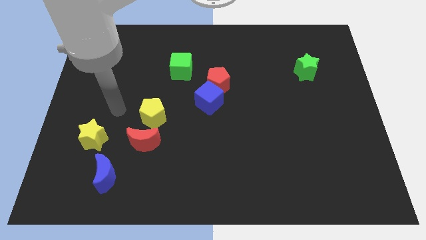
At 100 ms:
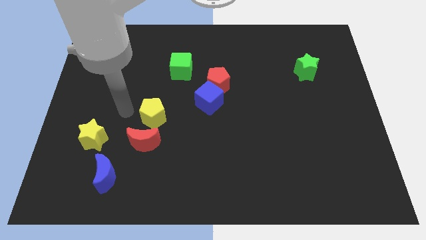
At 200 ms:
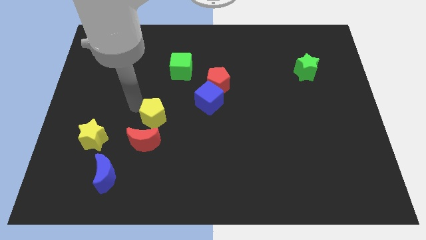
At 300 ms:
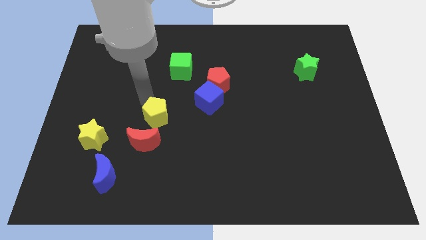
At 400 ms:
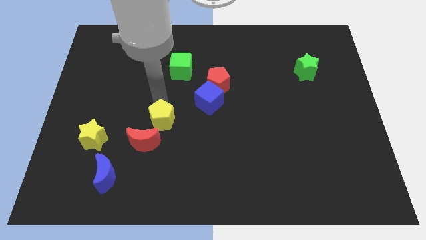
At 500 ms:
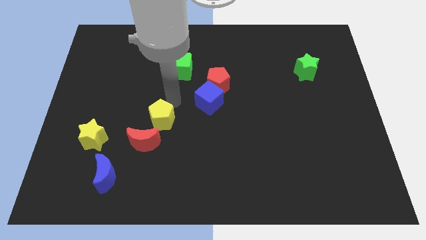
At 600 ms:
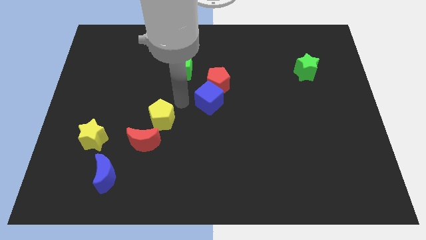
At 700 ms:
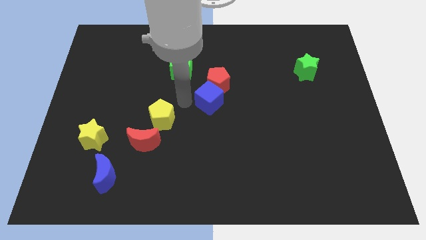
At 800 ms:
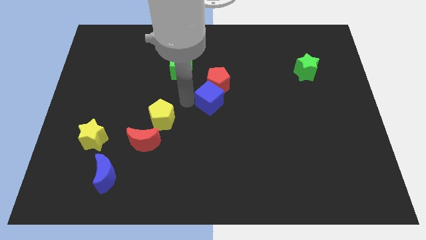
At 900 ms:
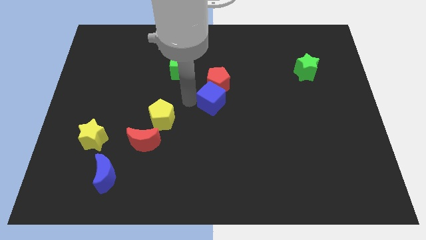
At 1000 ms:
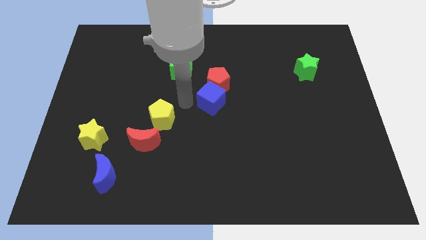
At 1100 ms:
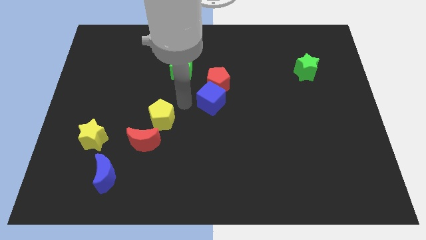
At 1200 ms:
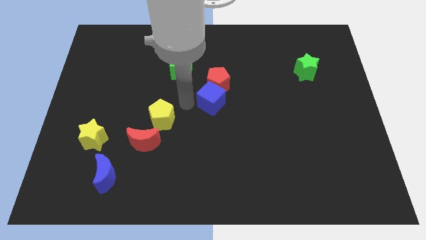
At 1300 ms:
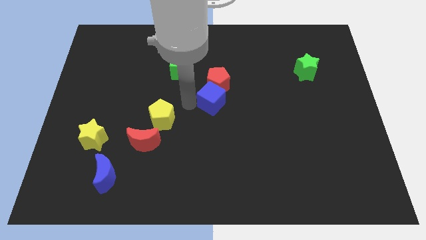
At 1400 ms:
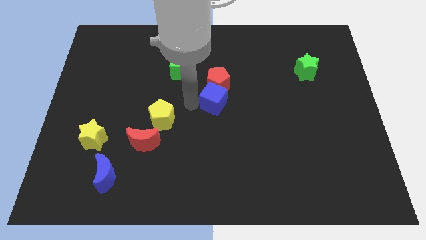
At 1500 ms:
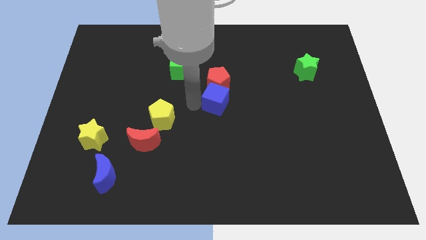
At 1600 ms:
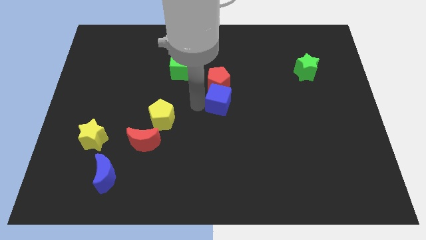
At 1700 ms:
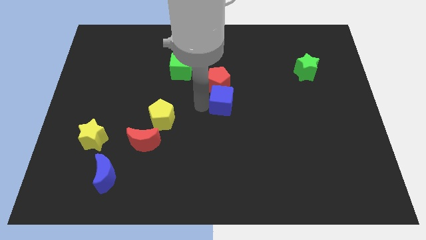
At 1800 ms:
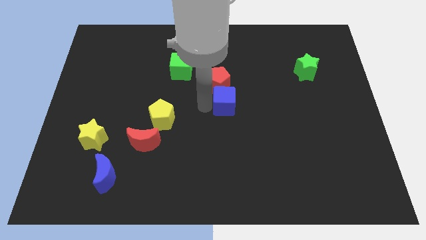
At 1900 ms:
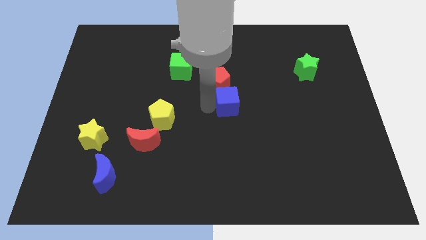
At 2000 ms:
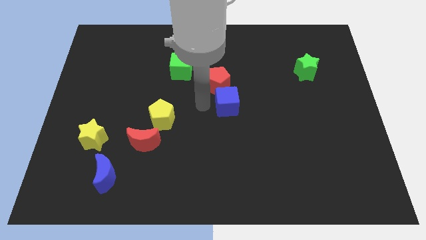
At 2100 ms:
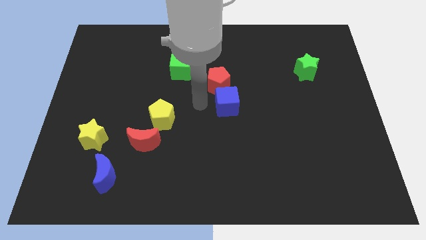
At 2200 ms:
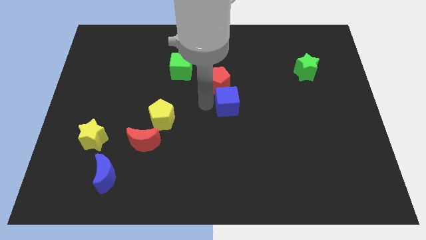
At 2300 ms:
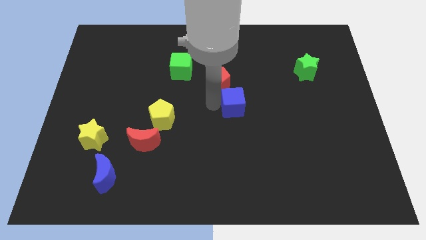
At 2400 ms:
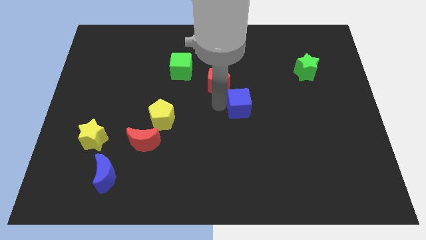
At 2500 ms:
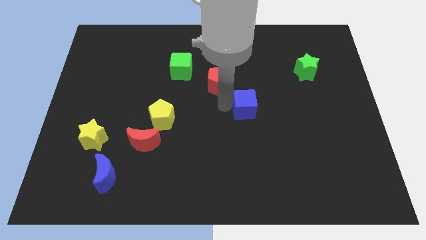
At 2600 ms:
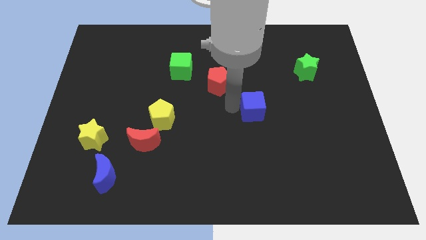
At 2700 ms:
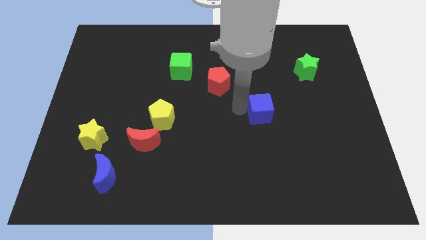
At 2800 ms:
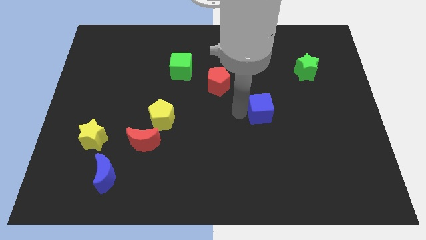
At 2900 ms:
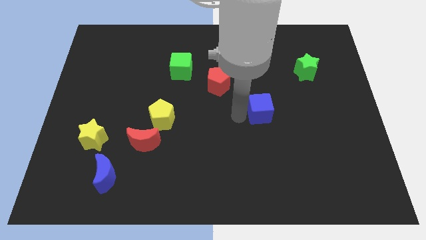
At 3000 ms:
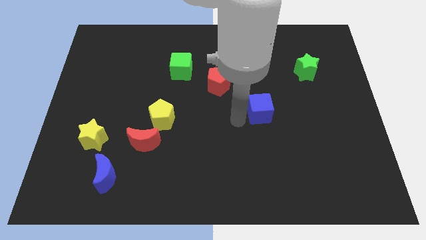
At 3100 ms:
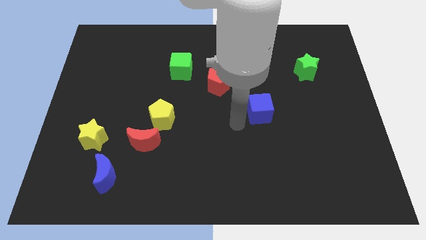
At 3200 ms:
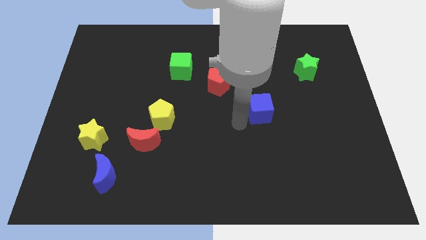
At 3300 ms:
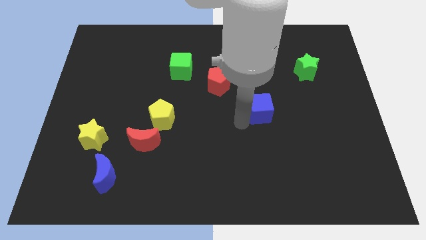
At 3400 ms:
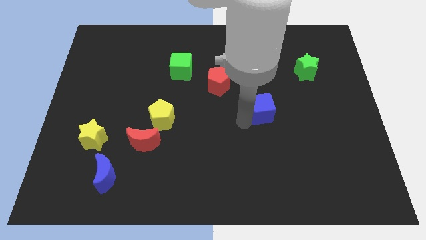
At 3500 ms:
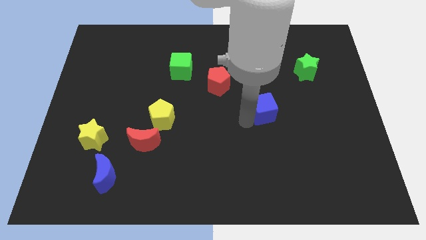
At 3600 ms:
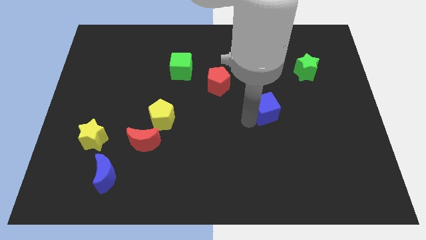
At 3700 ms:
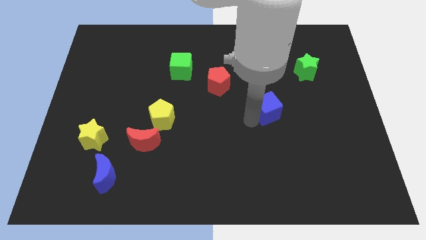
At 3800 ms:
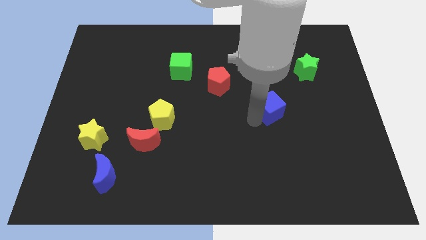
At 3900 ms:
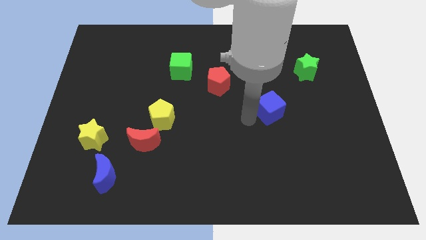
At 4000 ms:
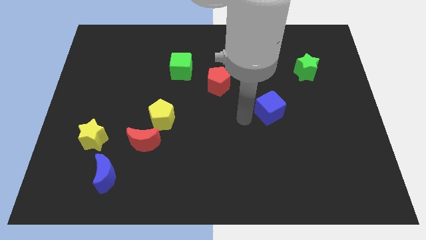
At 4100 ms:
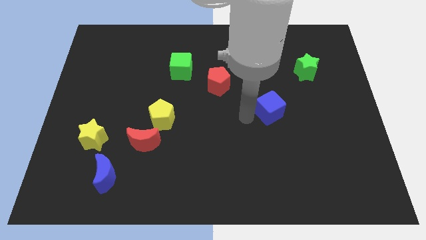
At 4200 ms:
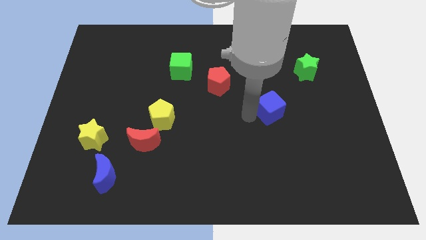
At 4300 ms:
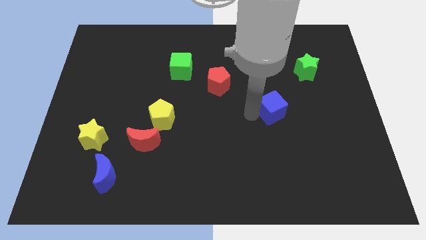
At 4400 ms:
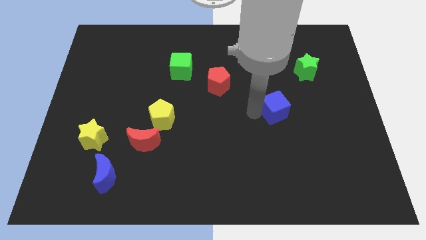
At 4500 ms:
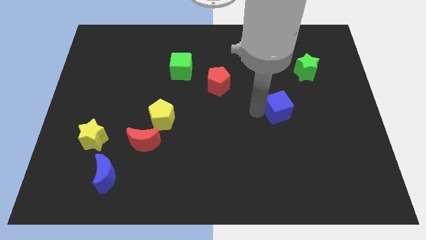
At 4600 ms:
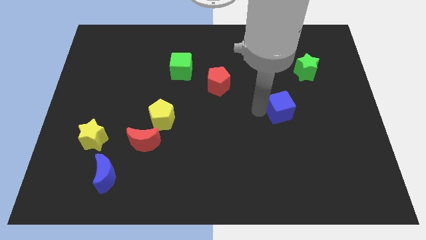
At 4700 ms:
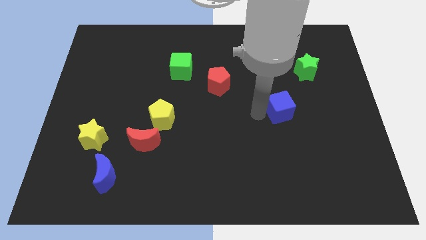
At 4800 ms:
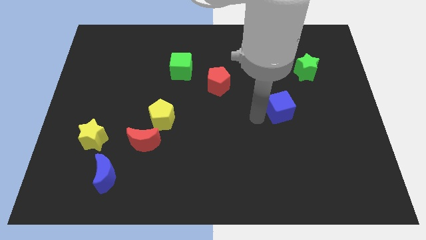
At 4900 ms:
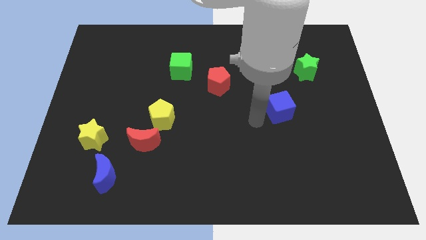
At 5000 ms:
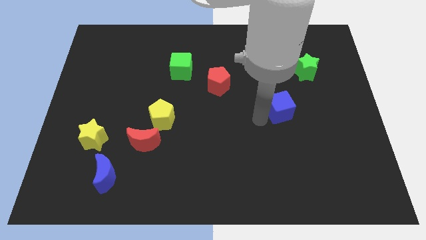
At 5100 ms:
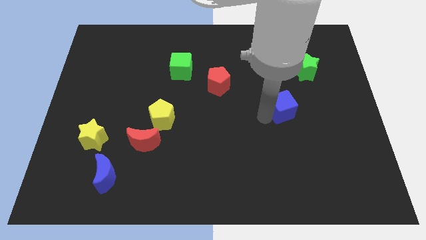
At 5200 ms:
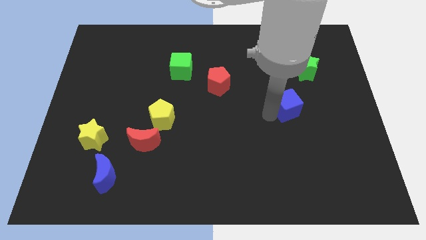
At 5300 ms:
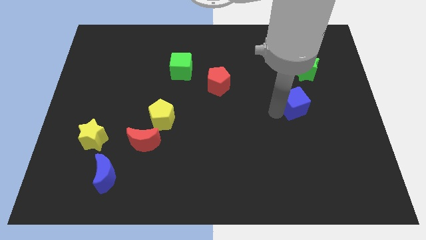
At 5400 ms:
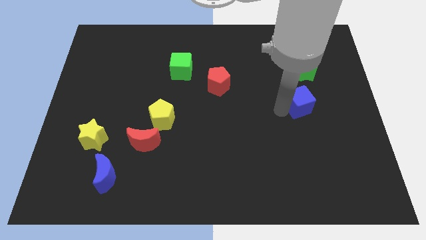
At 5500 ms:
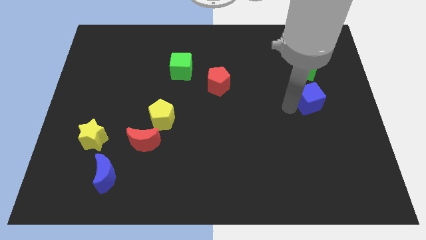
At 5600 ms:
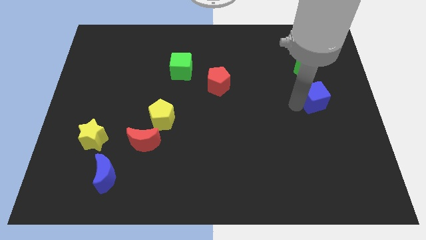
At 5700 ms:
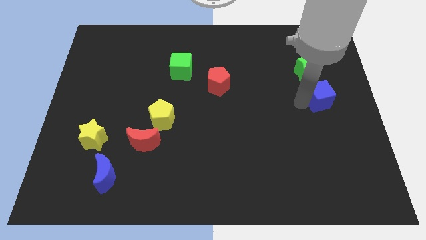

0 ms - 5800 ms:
push the blue cube to the right side

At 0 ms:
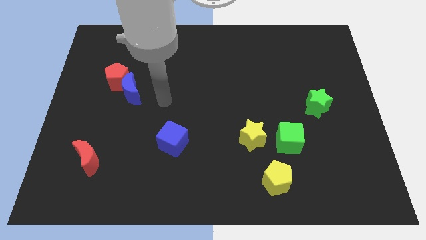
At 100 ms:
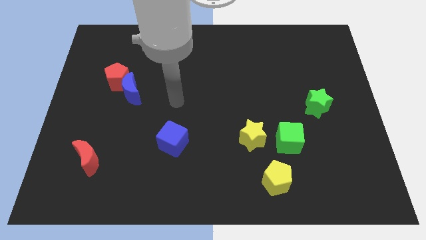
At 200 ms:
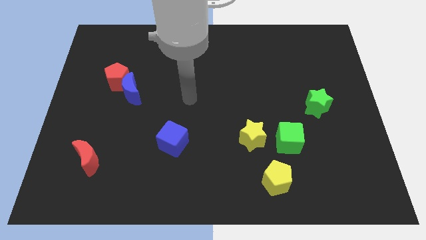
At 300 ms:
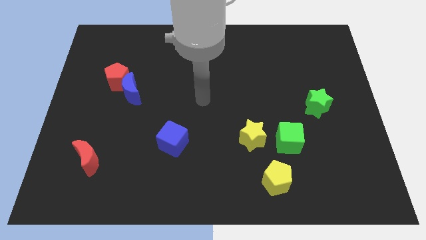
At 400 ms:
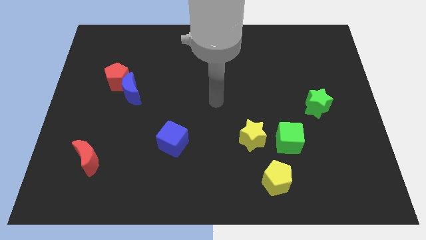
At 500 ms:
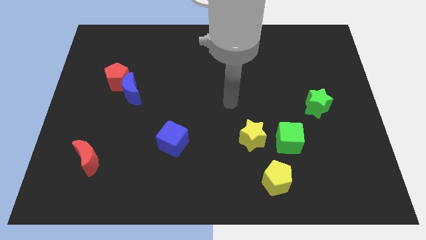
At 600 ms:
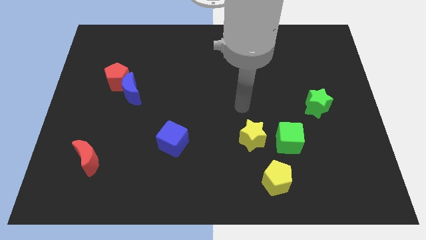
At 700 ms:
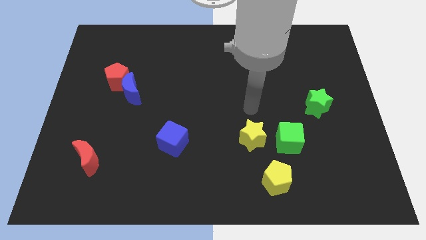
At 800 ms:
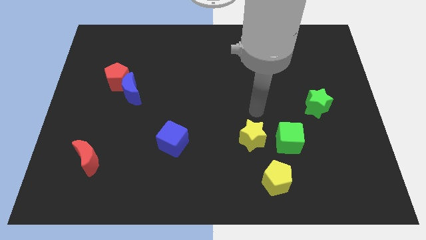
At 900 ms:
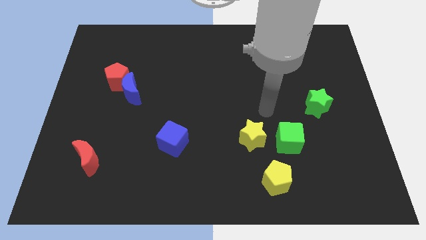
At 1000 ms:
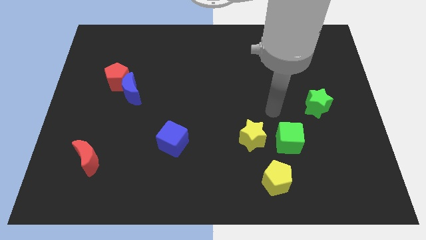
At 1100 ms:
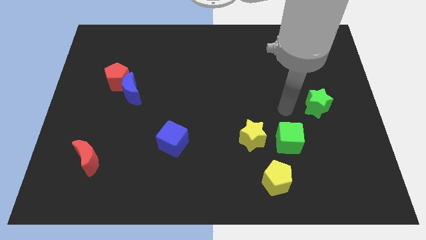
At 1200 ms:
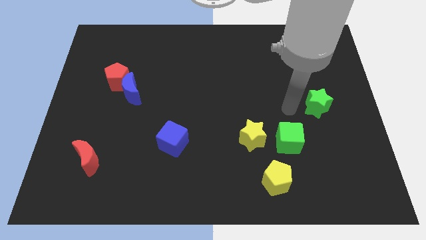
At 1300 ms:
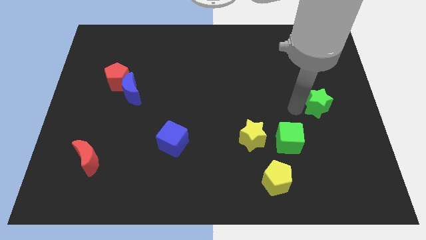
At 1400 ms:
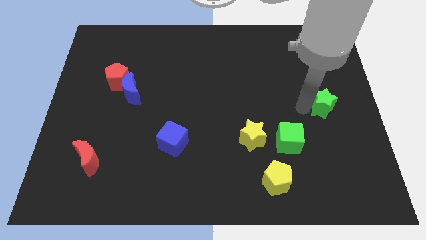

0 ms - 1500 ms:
move the green star to the center right
